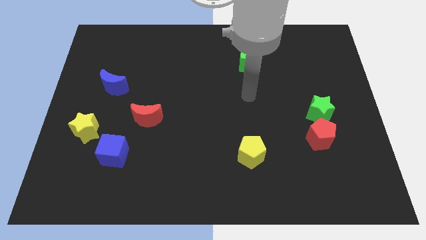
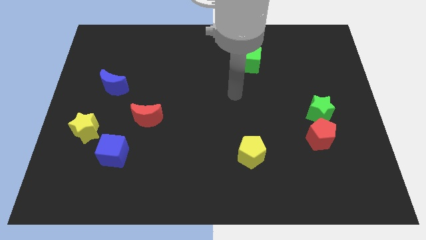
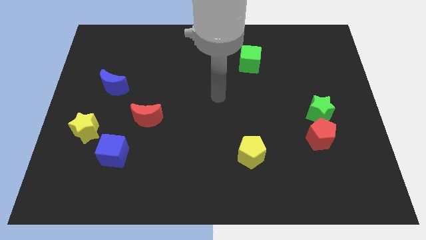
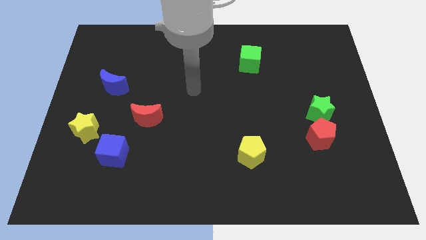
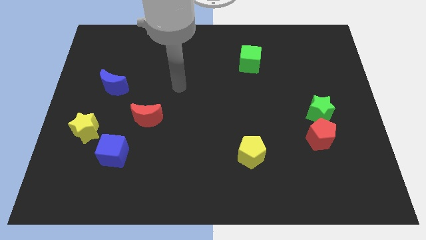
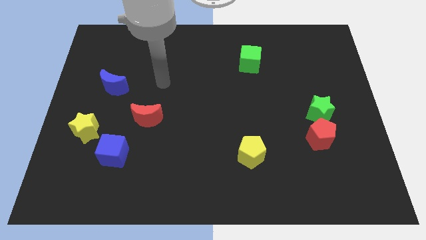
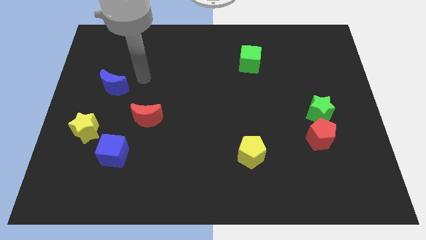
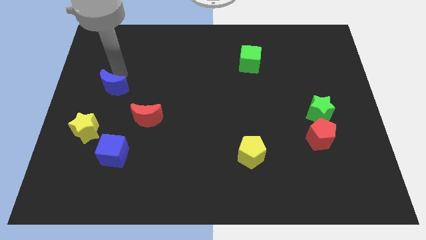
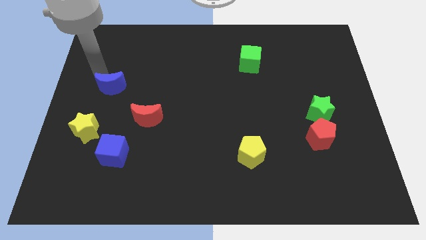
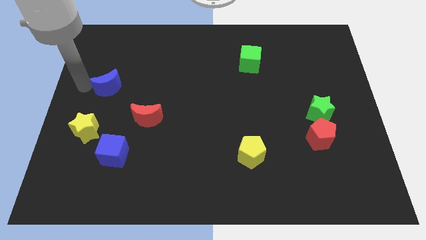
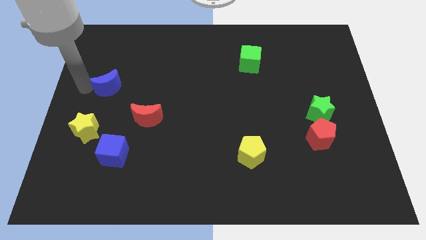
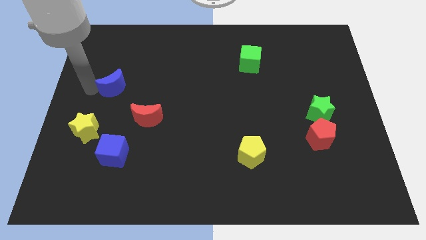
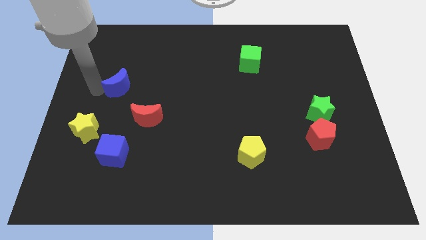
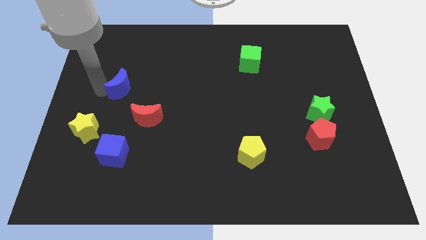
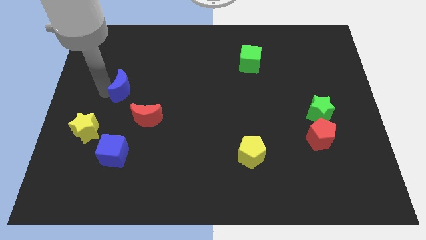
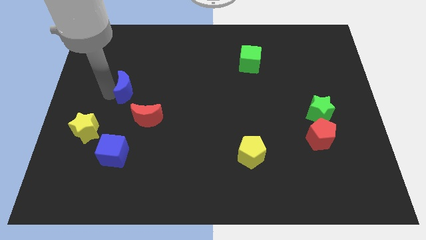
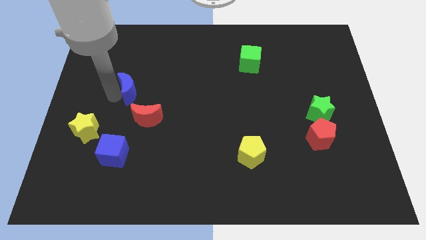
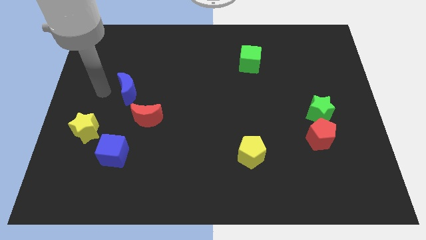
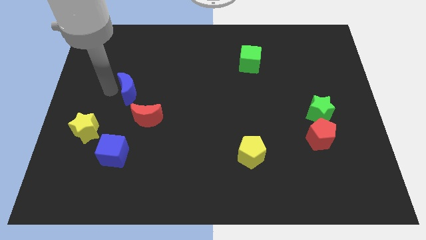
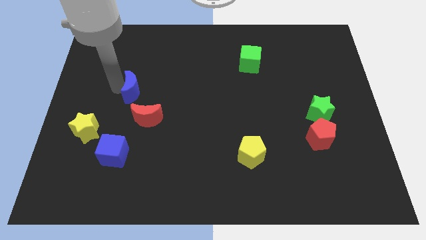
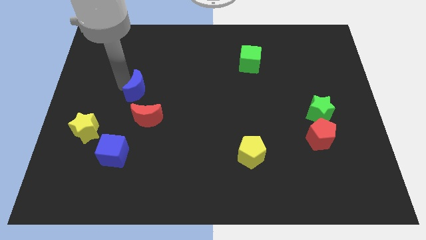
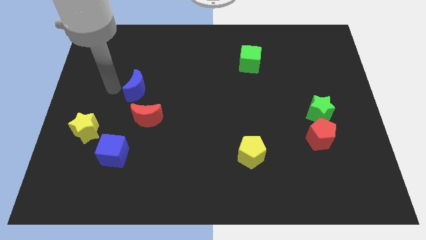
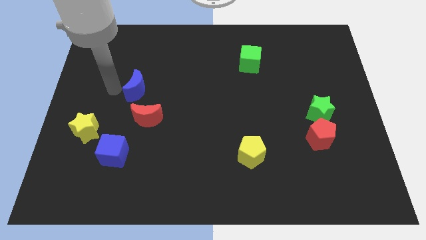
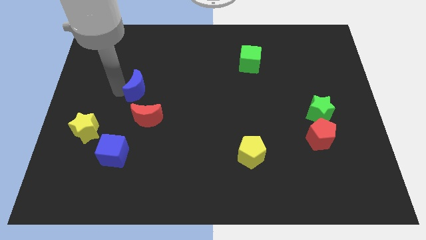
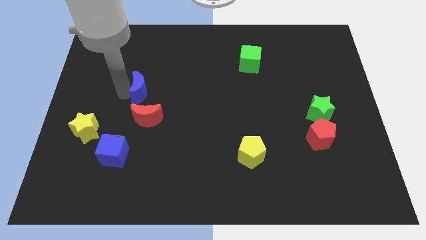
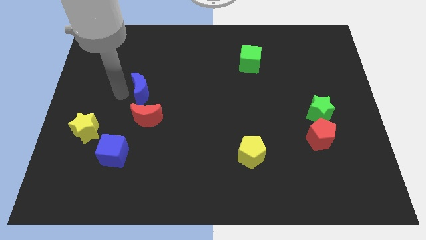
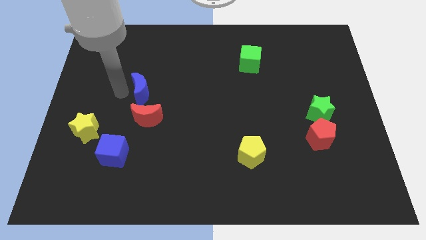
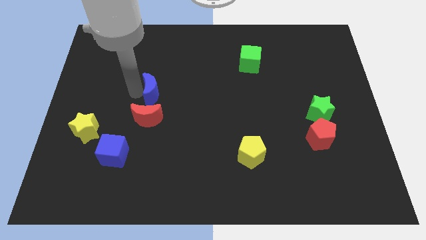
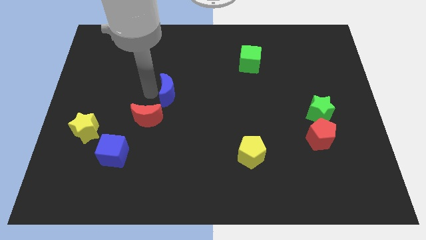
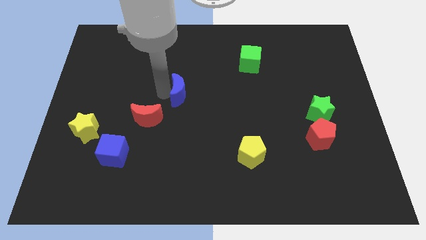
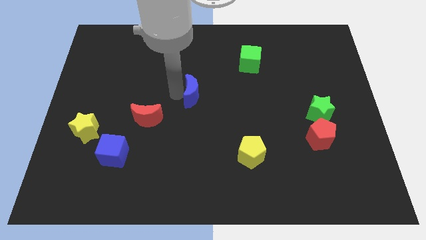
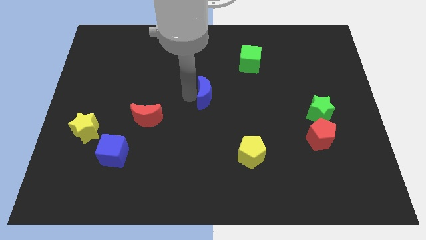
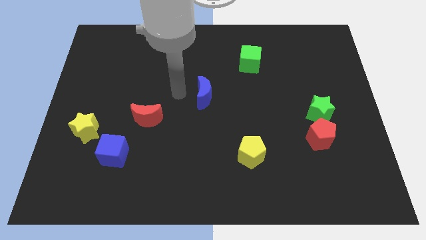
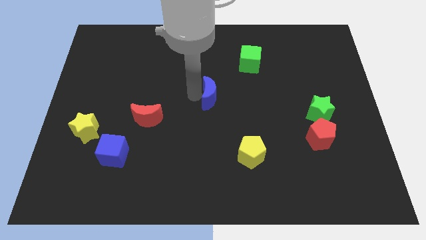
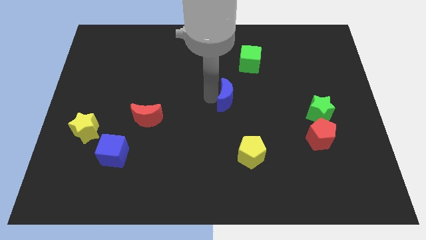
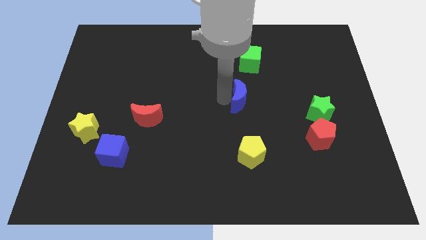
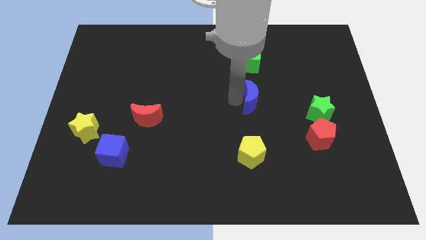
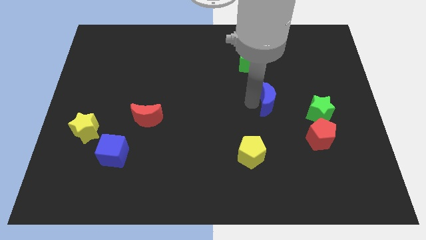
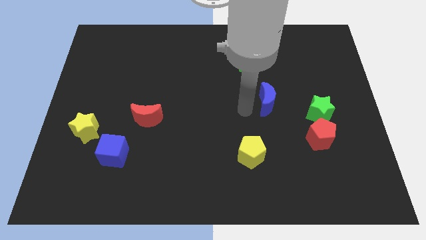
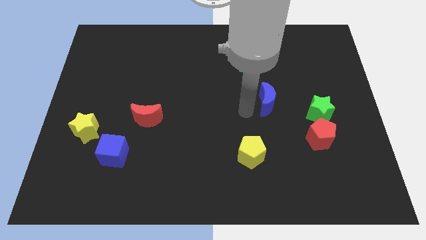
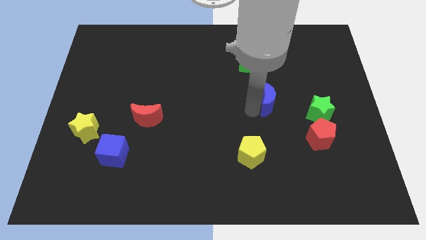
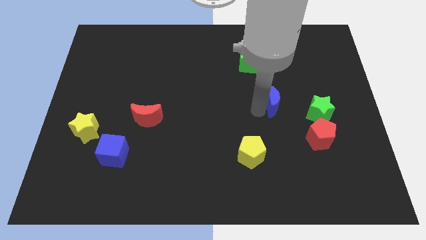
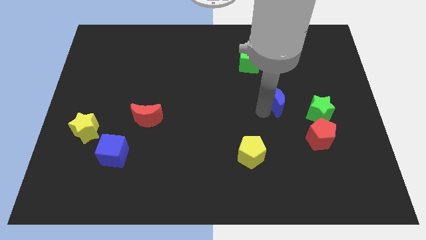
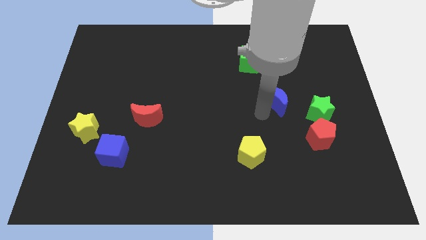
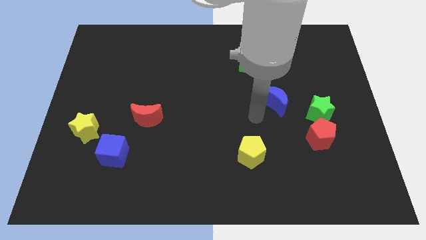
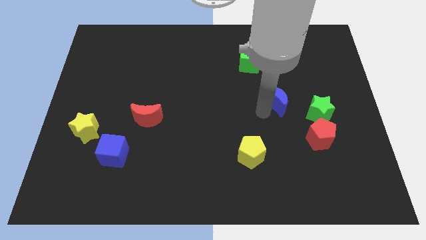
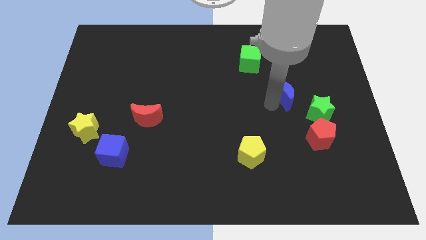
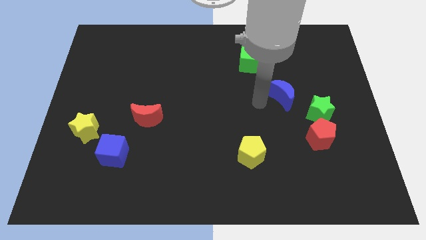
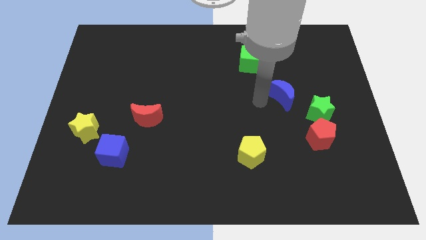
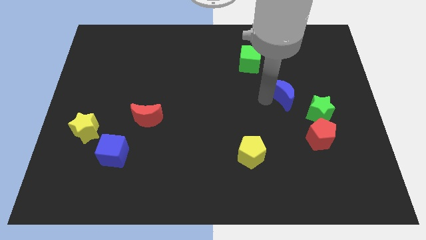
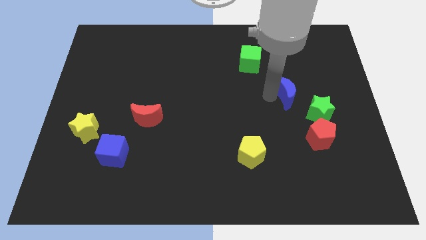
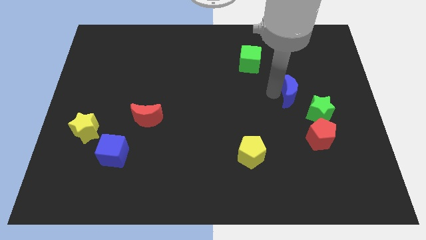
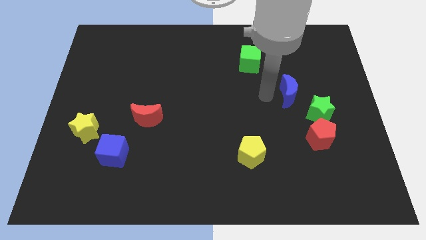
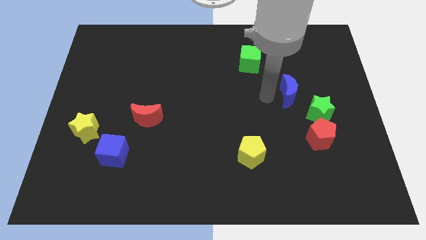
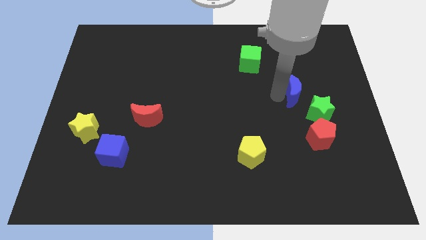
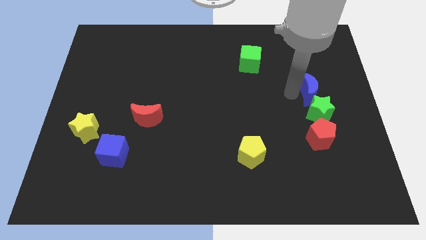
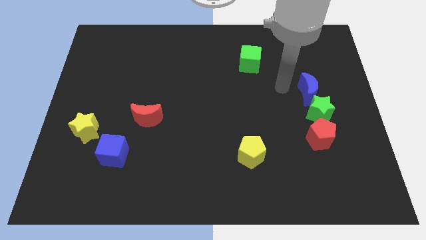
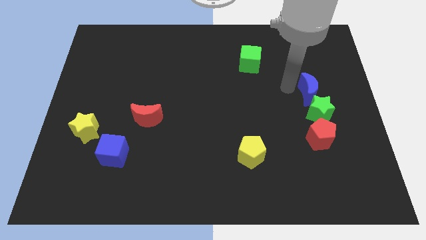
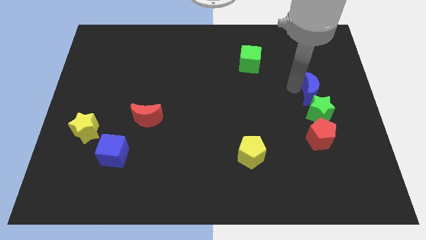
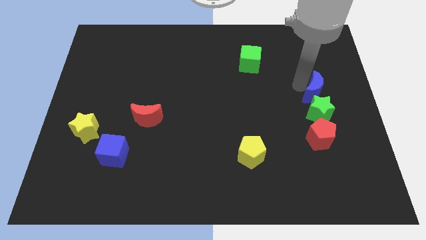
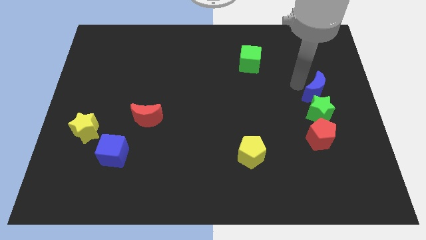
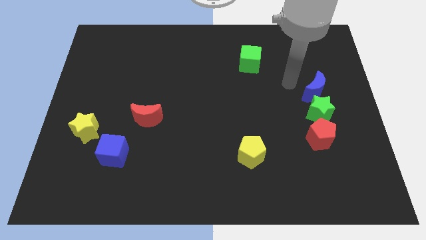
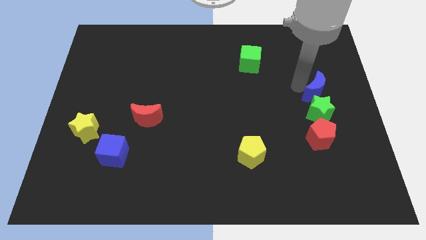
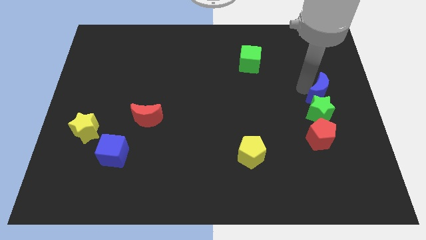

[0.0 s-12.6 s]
put the blue moon to the right side of the board

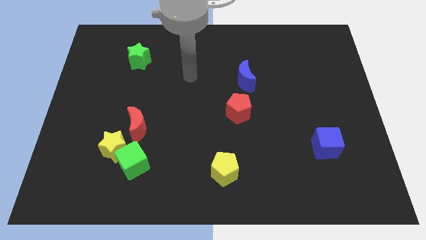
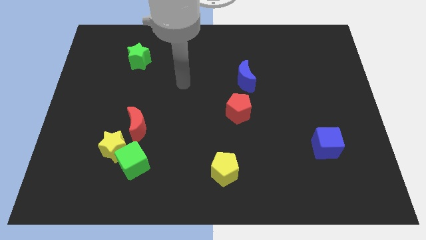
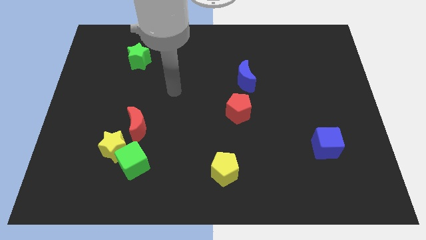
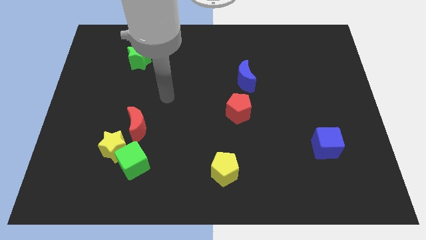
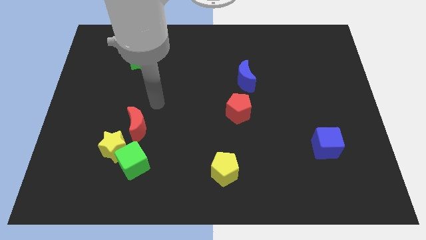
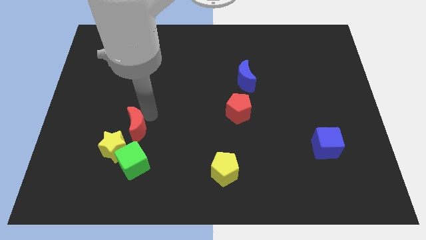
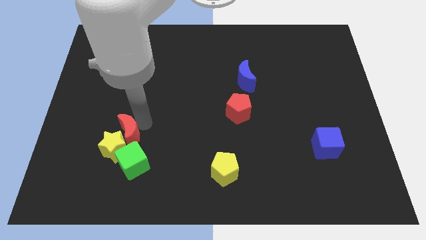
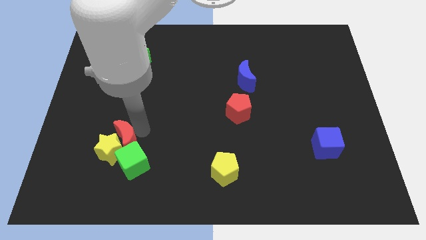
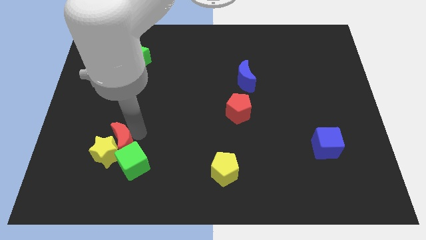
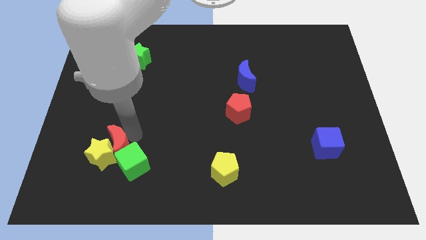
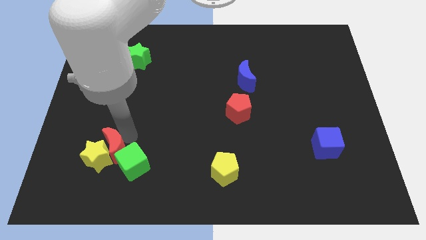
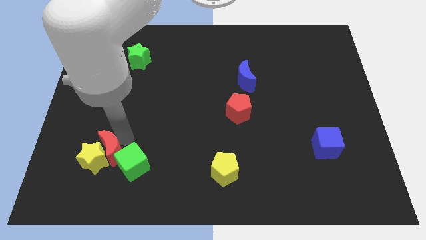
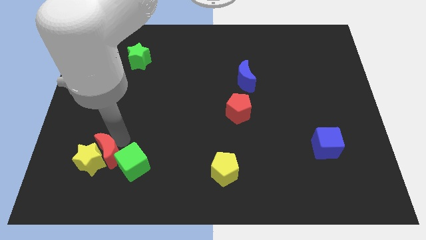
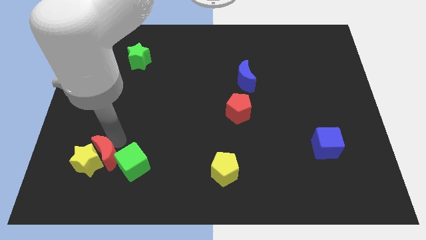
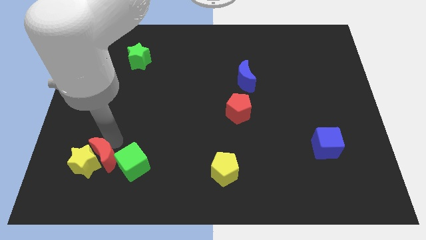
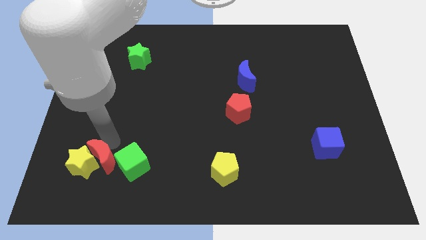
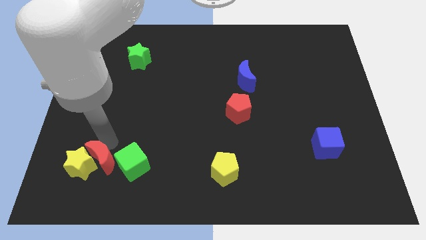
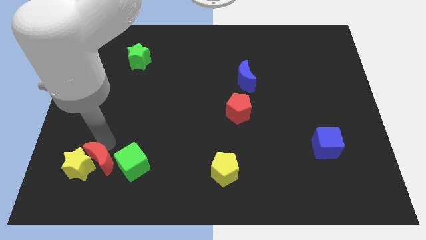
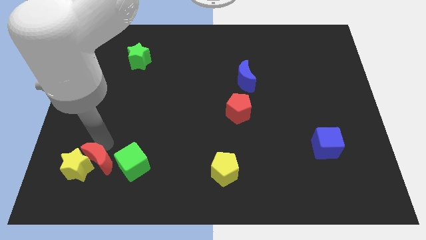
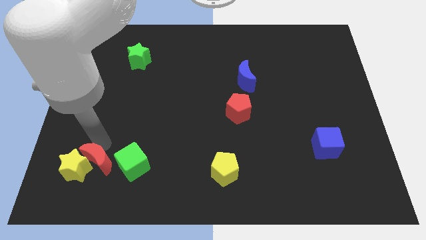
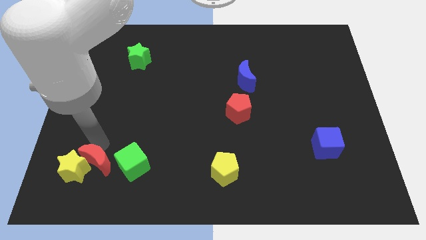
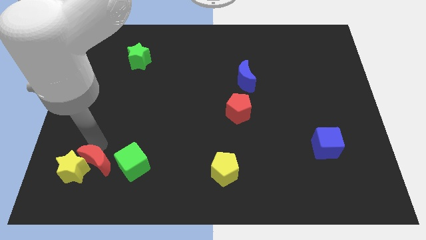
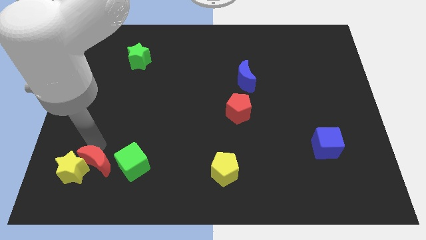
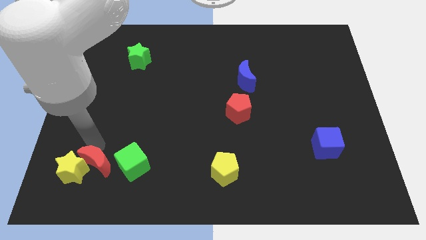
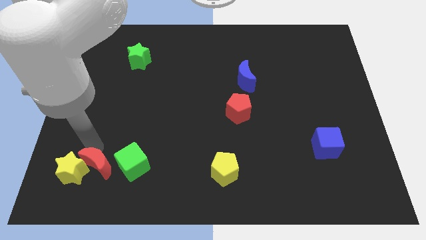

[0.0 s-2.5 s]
move the yellow star to the lower left corner
